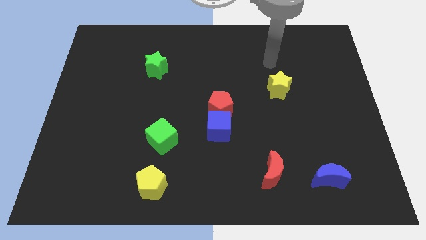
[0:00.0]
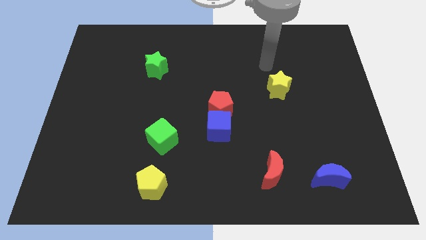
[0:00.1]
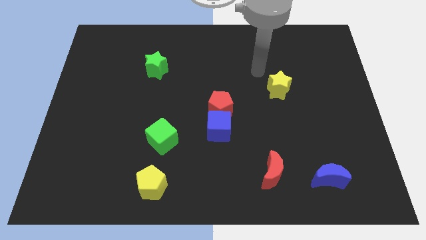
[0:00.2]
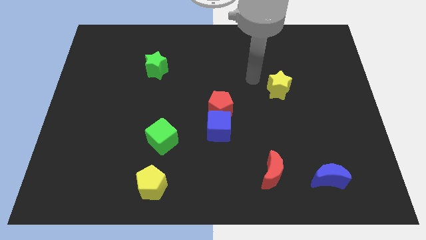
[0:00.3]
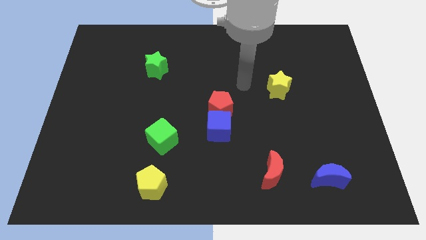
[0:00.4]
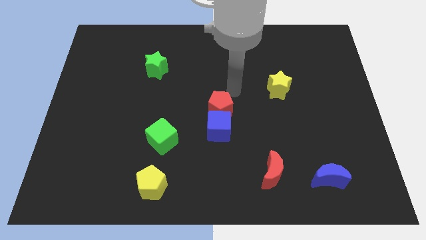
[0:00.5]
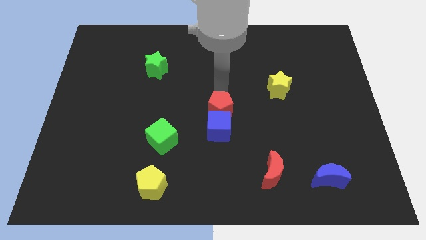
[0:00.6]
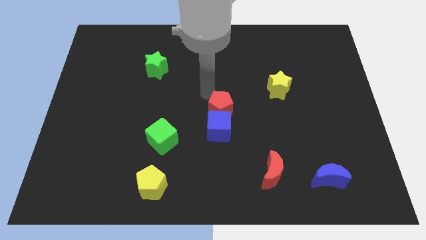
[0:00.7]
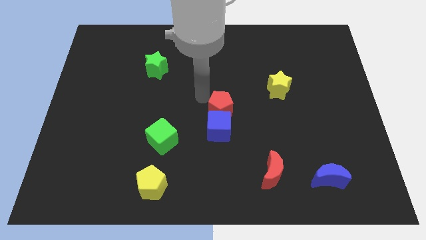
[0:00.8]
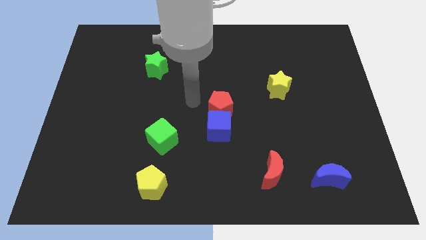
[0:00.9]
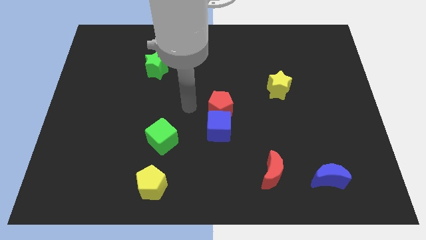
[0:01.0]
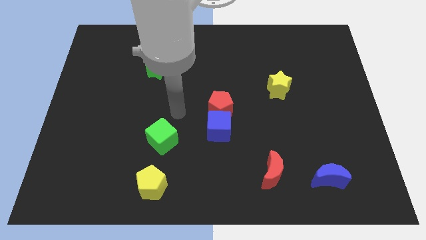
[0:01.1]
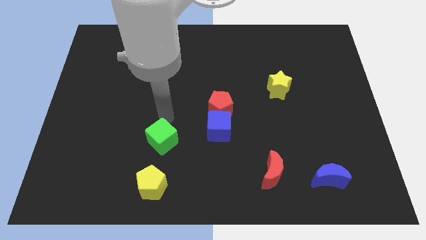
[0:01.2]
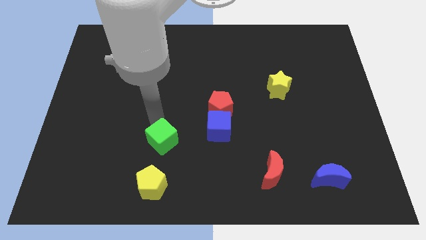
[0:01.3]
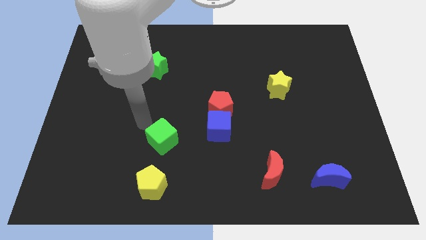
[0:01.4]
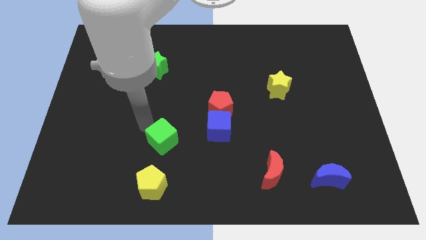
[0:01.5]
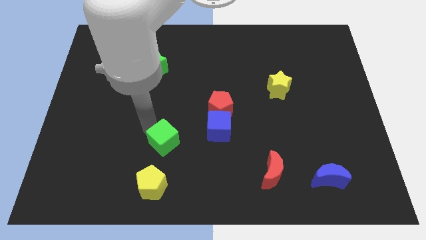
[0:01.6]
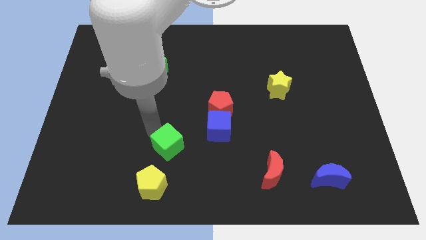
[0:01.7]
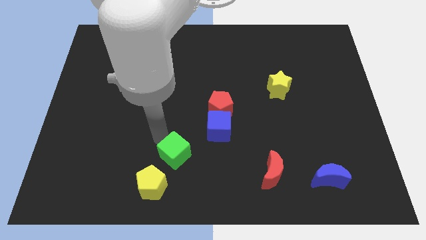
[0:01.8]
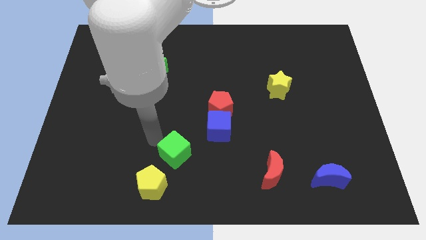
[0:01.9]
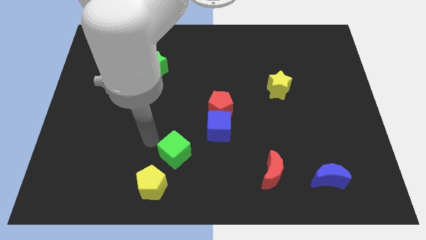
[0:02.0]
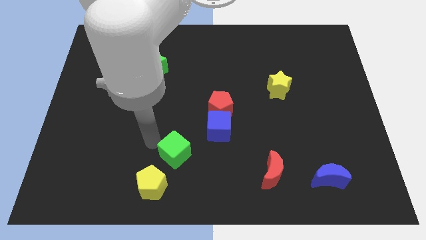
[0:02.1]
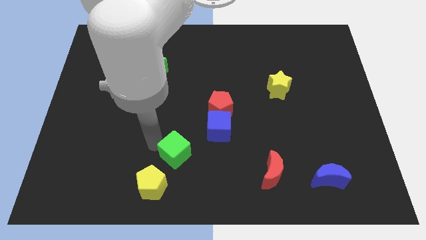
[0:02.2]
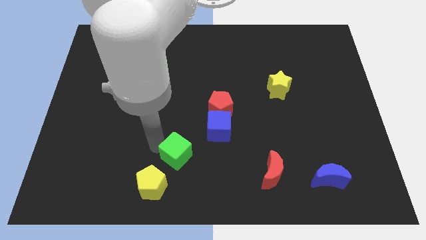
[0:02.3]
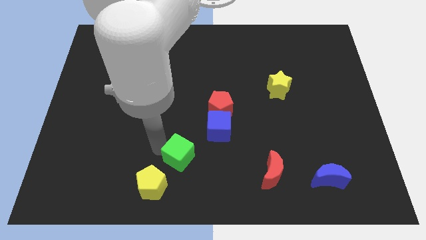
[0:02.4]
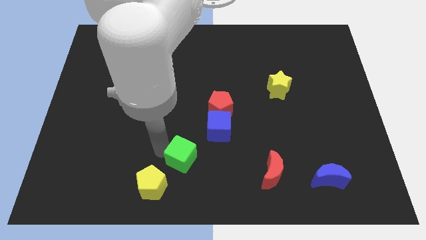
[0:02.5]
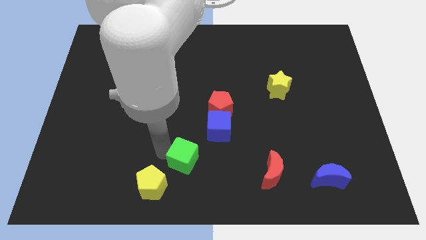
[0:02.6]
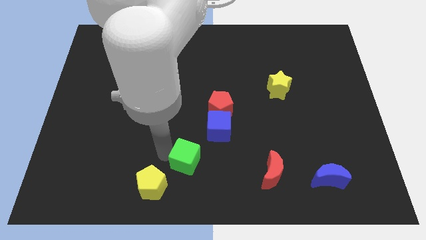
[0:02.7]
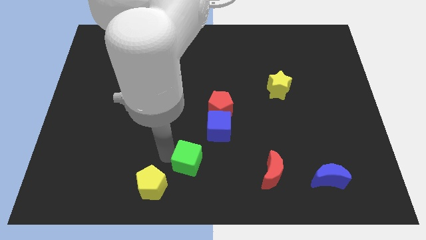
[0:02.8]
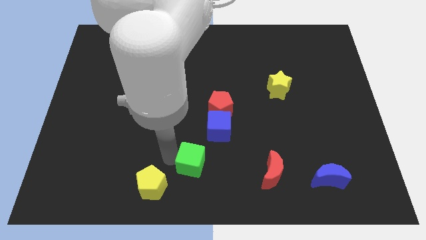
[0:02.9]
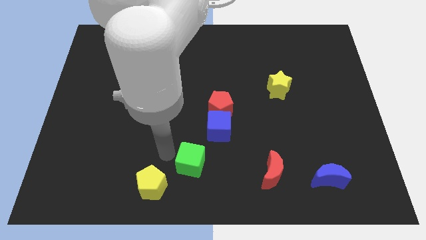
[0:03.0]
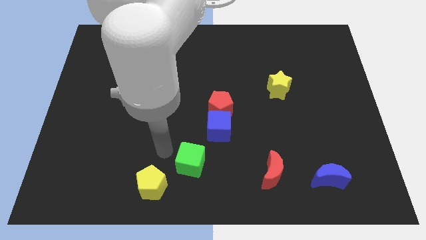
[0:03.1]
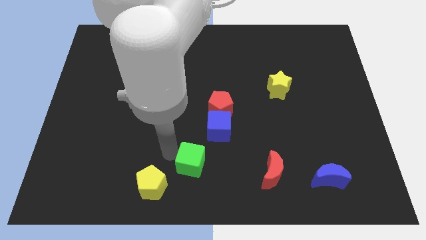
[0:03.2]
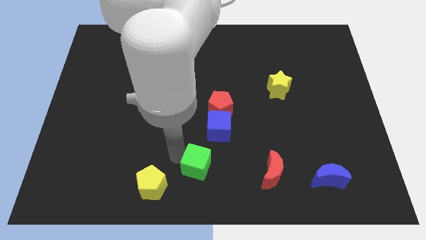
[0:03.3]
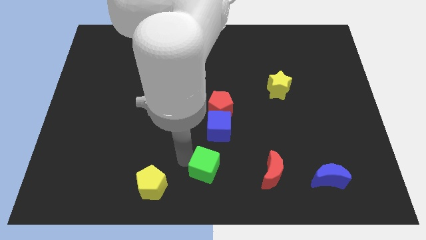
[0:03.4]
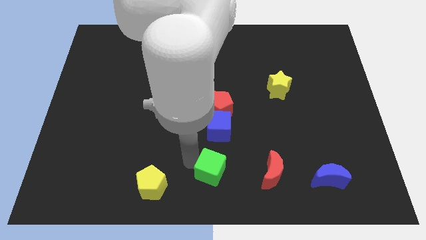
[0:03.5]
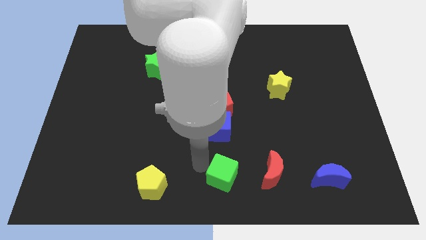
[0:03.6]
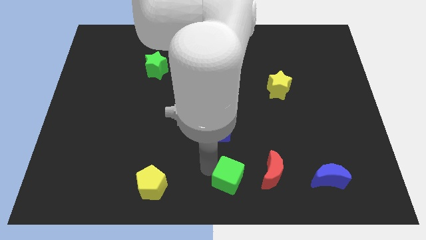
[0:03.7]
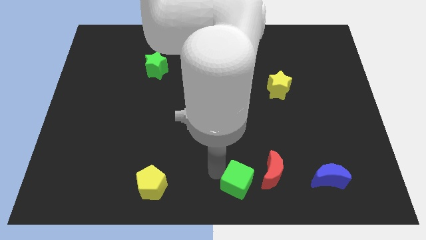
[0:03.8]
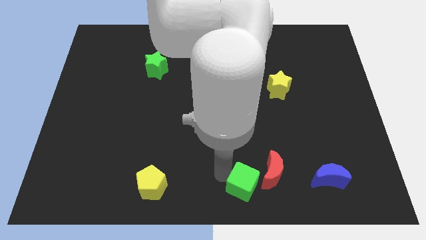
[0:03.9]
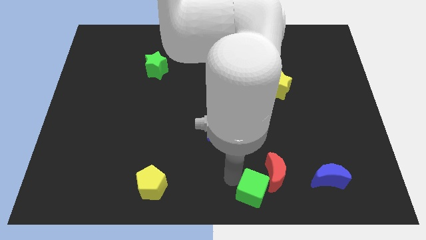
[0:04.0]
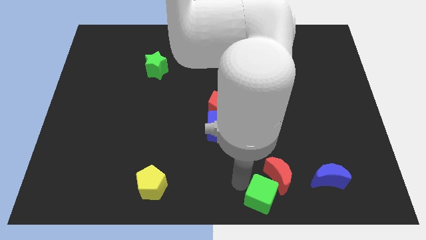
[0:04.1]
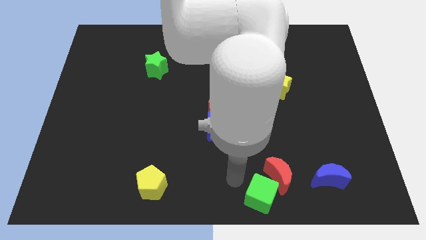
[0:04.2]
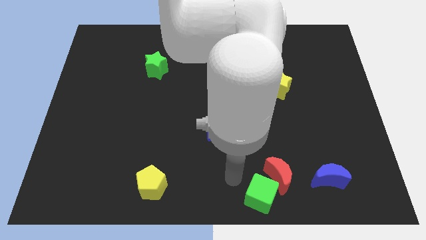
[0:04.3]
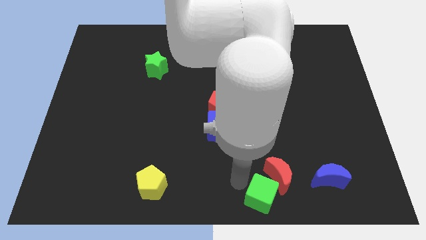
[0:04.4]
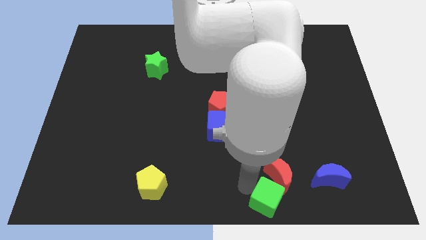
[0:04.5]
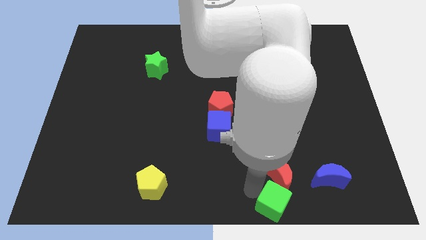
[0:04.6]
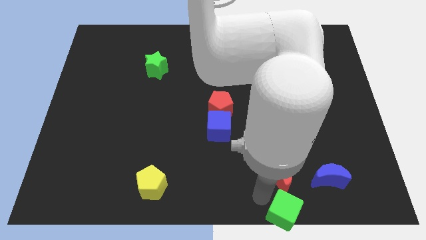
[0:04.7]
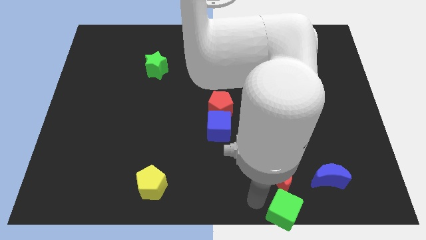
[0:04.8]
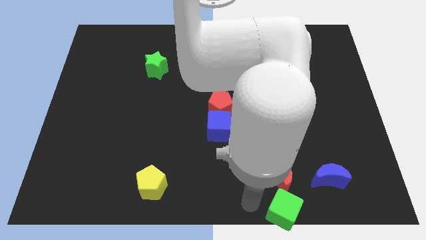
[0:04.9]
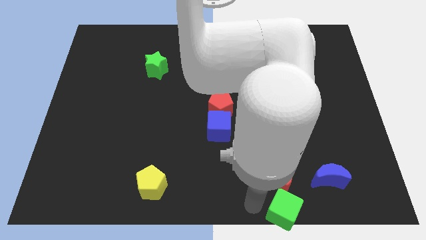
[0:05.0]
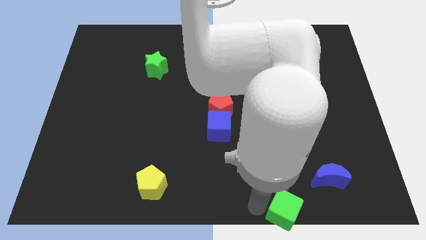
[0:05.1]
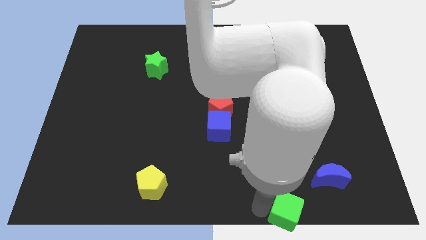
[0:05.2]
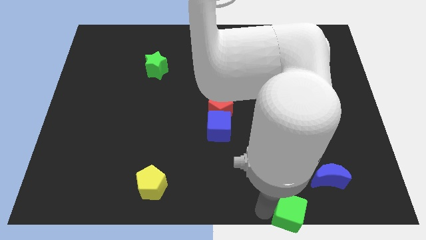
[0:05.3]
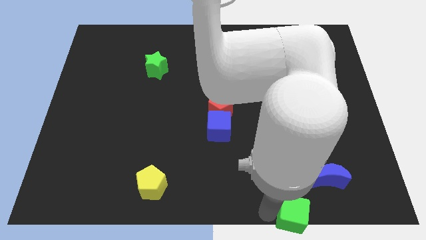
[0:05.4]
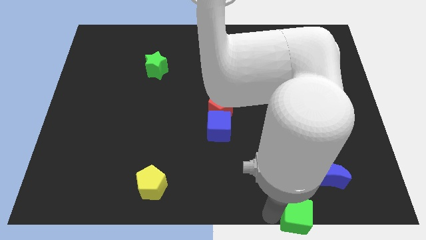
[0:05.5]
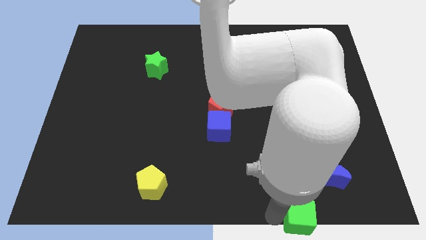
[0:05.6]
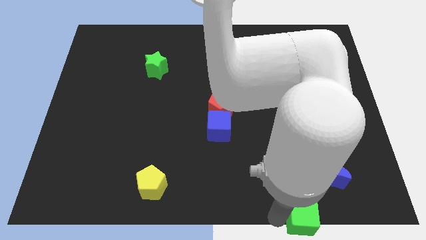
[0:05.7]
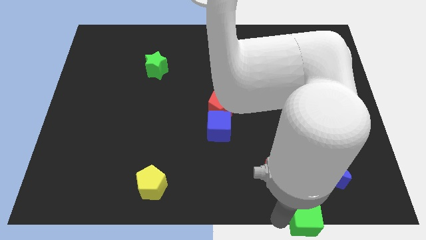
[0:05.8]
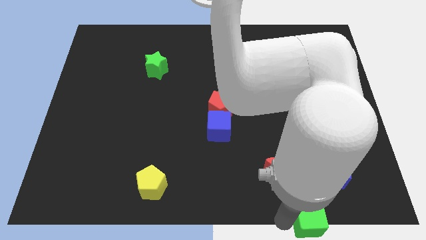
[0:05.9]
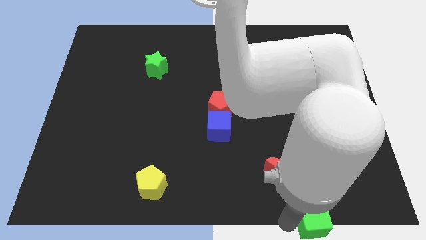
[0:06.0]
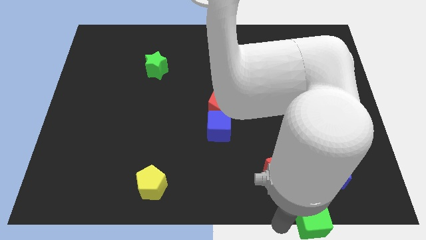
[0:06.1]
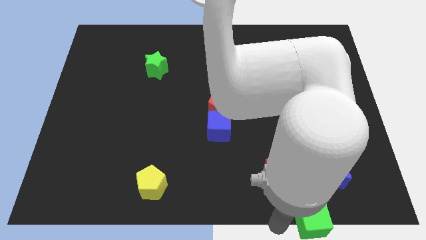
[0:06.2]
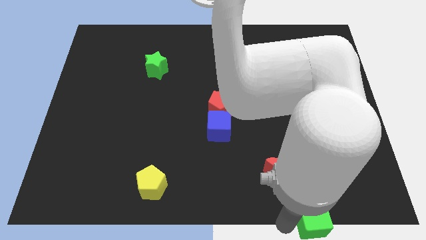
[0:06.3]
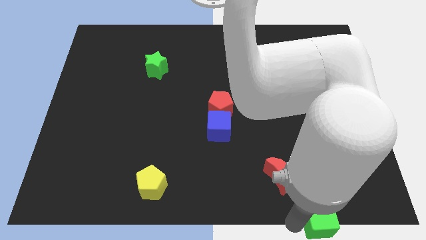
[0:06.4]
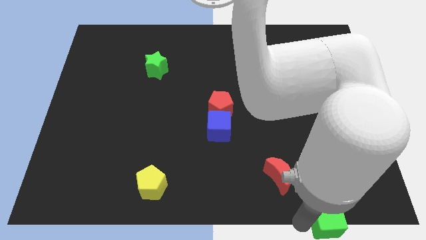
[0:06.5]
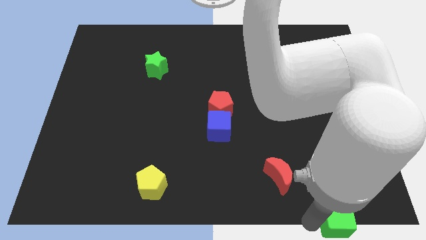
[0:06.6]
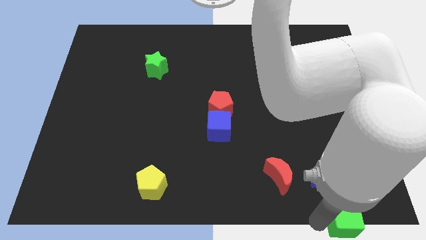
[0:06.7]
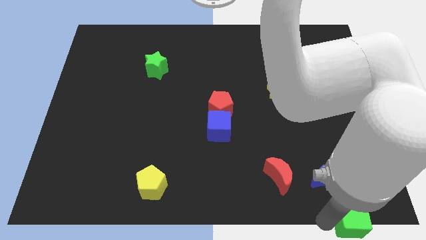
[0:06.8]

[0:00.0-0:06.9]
push the green cube to the bottom right of the board
